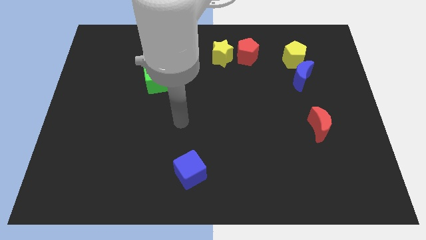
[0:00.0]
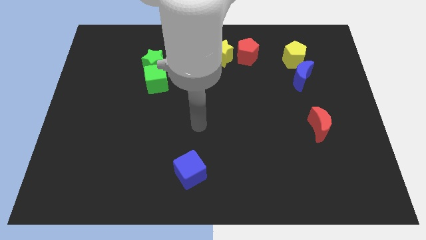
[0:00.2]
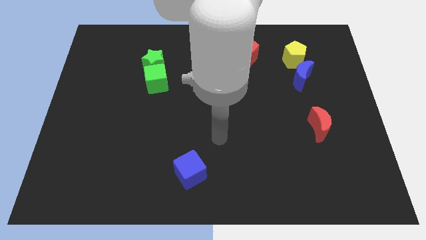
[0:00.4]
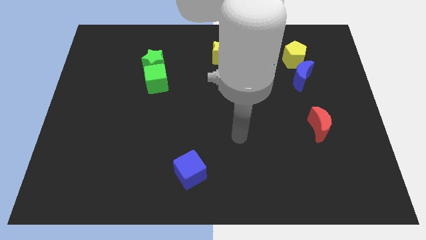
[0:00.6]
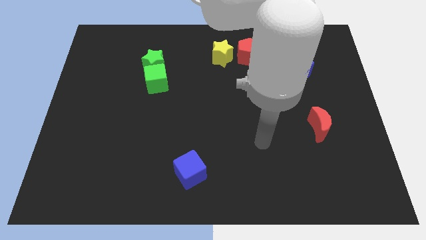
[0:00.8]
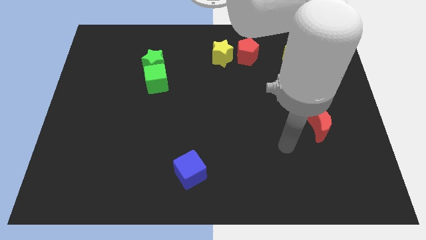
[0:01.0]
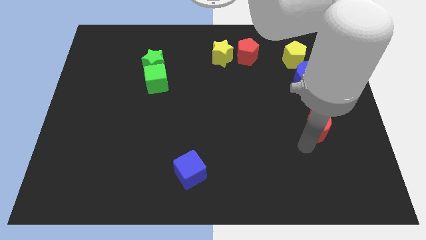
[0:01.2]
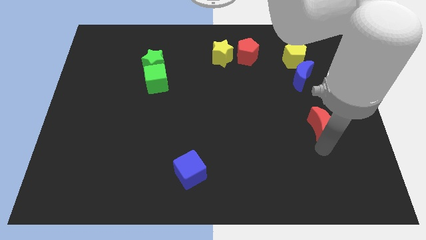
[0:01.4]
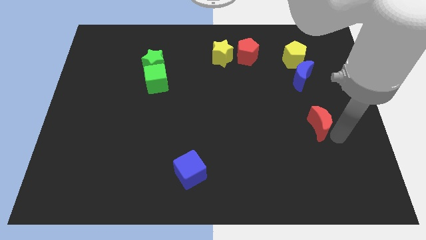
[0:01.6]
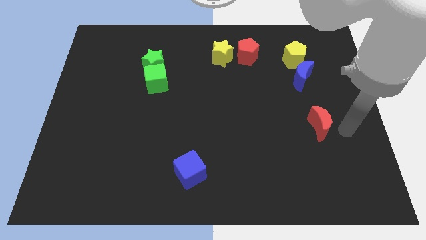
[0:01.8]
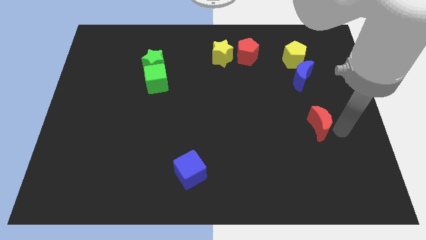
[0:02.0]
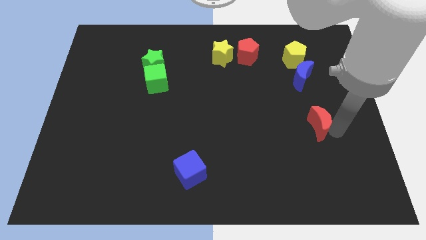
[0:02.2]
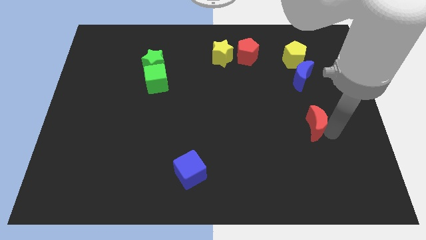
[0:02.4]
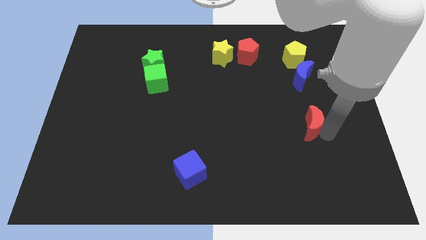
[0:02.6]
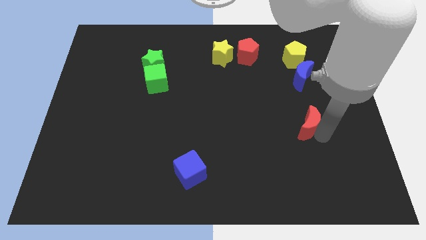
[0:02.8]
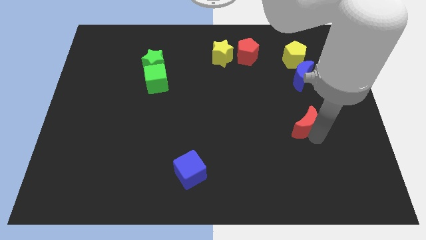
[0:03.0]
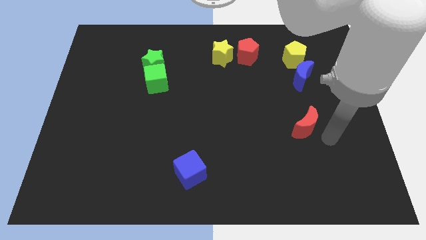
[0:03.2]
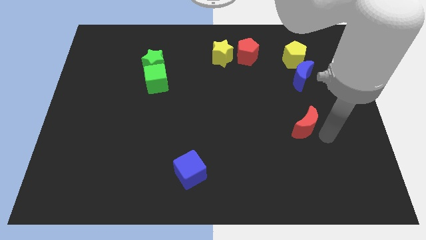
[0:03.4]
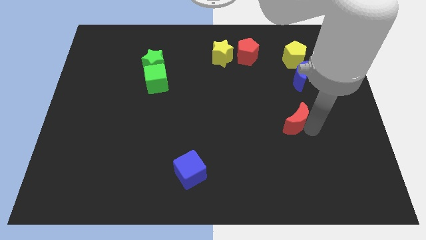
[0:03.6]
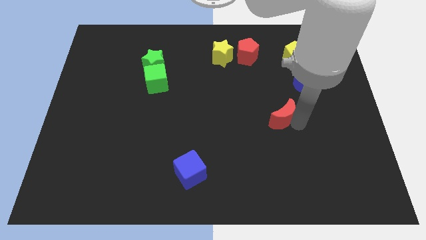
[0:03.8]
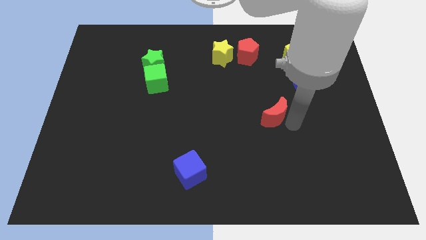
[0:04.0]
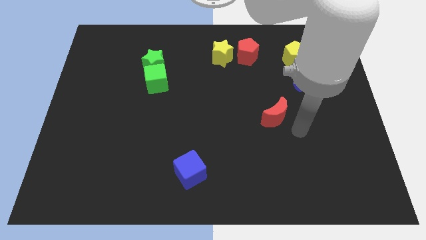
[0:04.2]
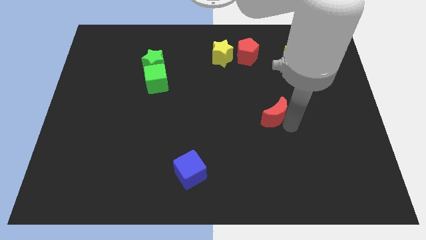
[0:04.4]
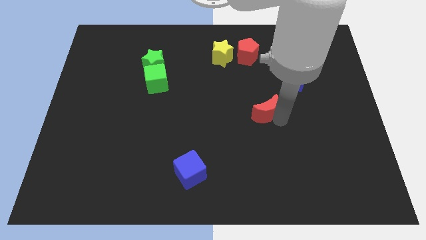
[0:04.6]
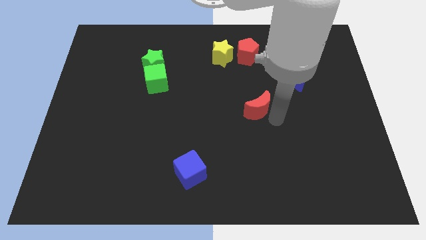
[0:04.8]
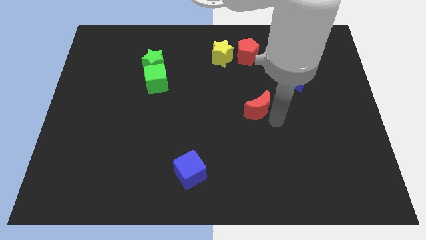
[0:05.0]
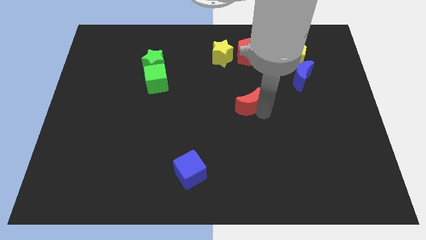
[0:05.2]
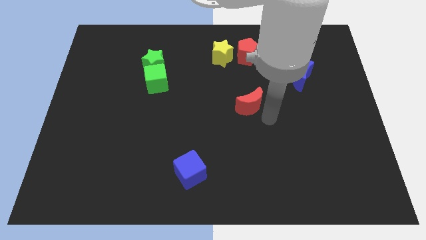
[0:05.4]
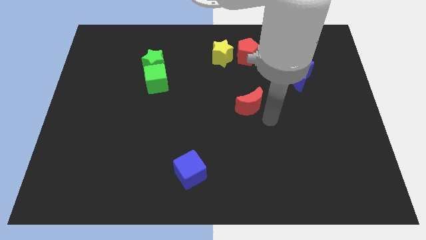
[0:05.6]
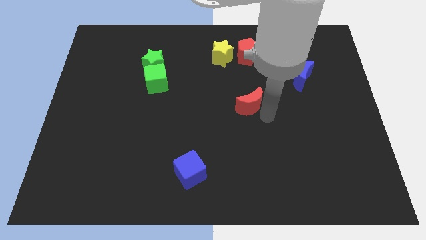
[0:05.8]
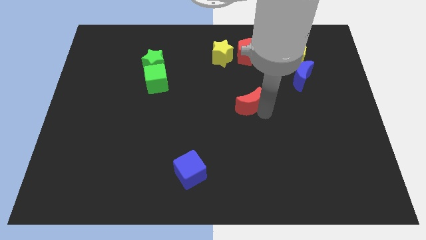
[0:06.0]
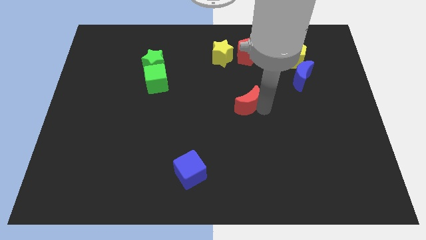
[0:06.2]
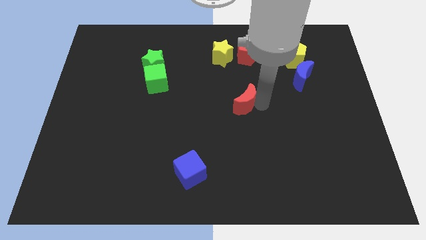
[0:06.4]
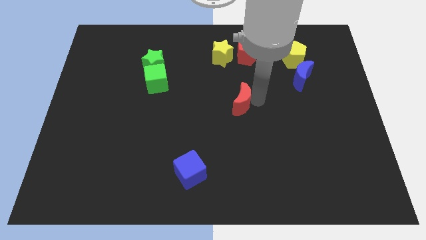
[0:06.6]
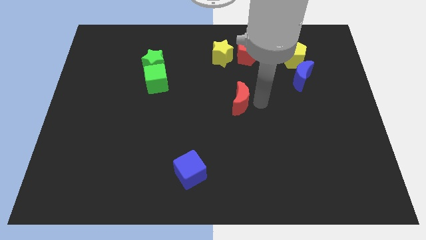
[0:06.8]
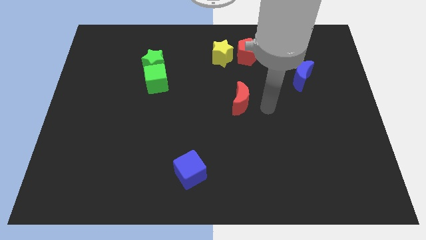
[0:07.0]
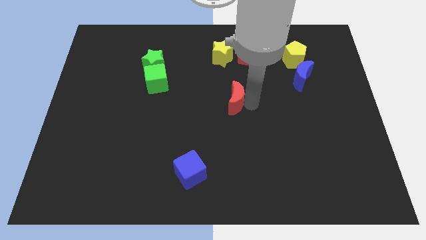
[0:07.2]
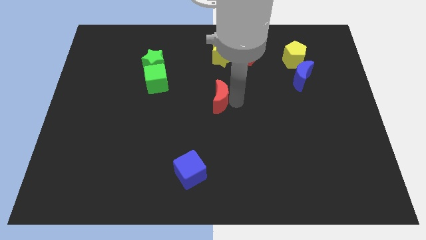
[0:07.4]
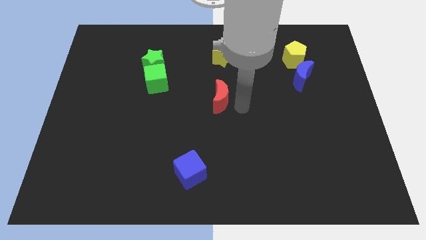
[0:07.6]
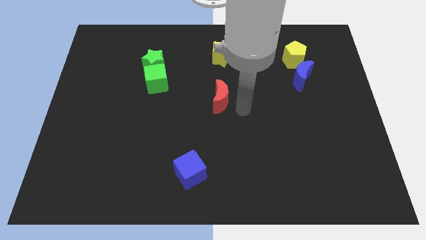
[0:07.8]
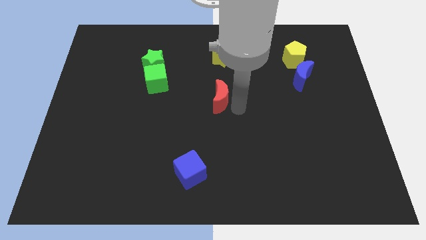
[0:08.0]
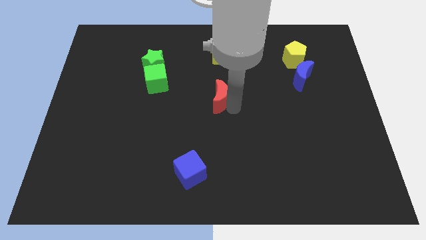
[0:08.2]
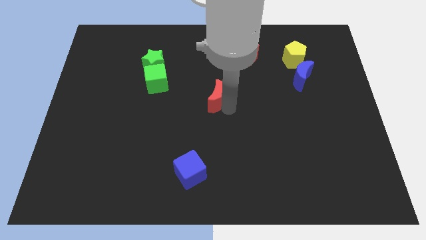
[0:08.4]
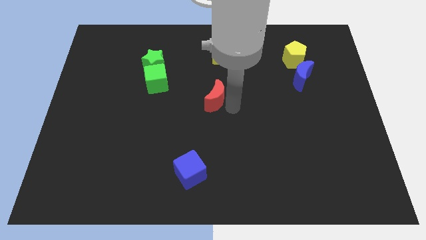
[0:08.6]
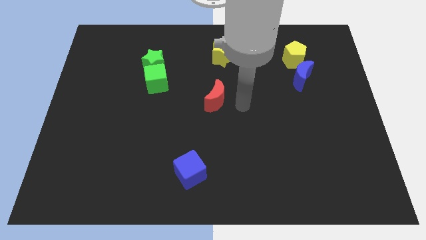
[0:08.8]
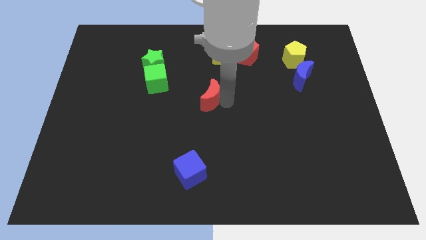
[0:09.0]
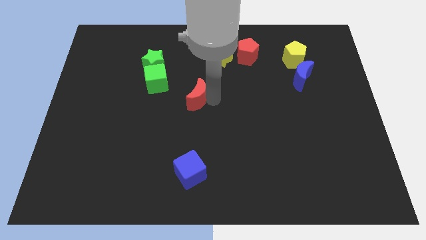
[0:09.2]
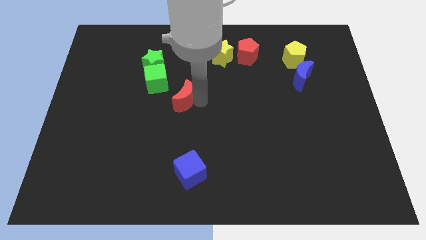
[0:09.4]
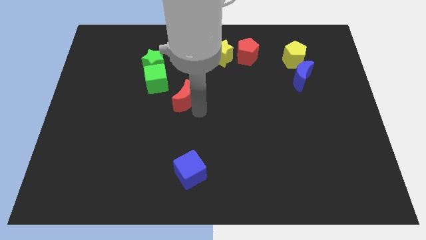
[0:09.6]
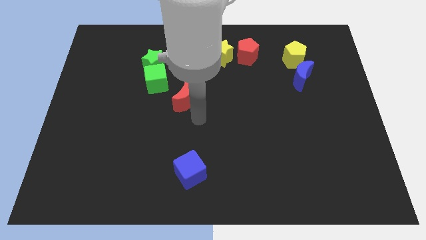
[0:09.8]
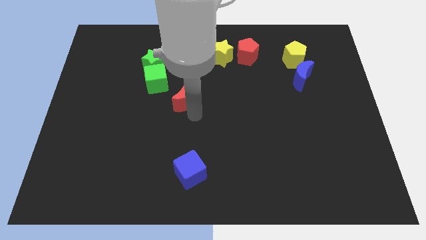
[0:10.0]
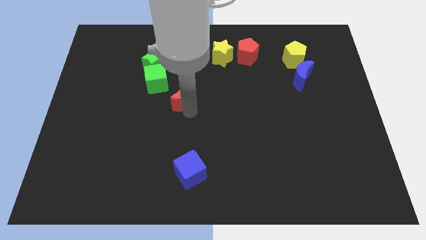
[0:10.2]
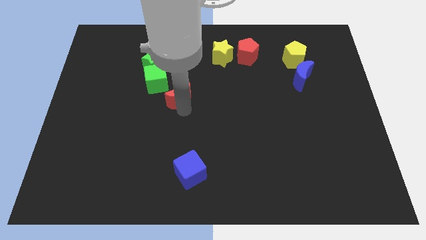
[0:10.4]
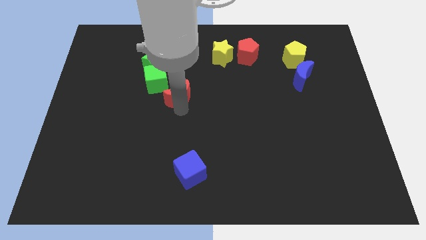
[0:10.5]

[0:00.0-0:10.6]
put the red moon to the bottom right side of the green star

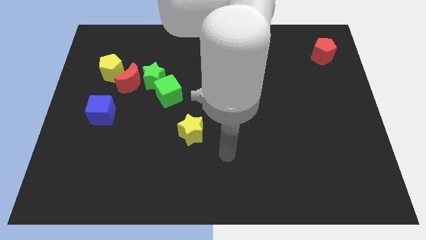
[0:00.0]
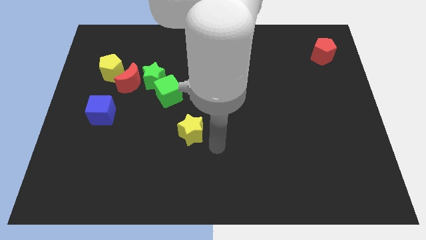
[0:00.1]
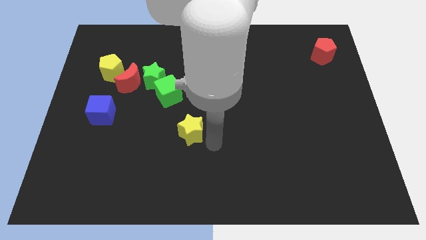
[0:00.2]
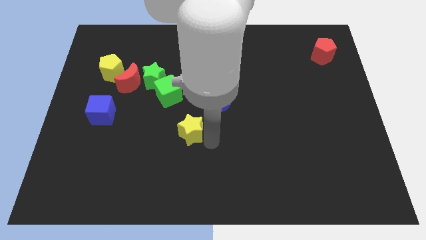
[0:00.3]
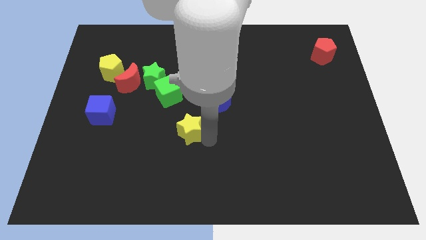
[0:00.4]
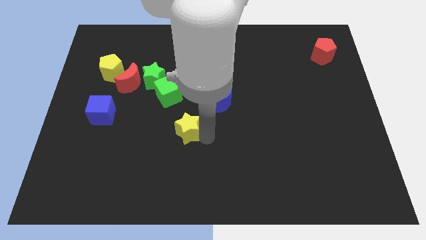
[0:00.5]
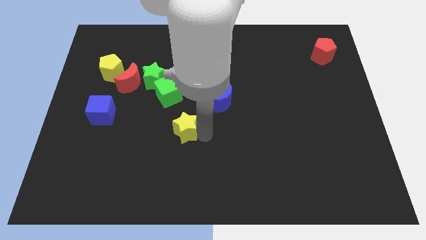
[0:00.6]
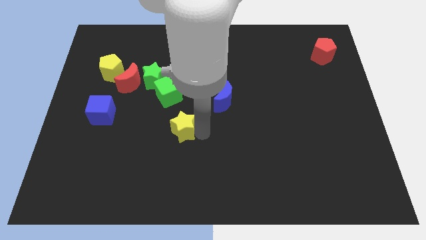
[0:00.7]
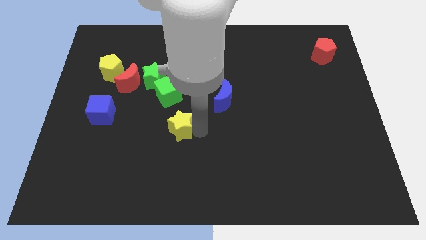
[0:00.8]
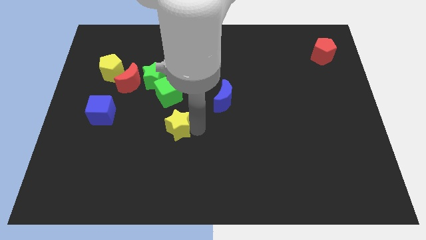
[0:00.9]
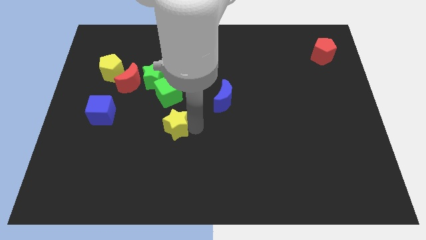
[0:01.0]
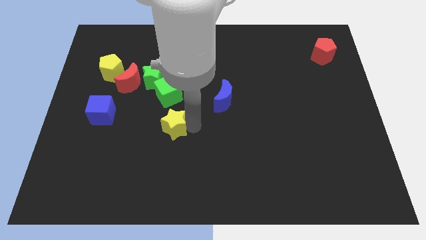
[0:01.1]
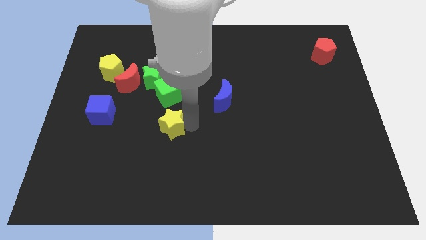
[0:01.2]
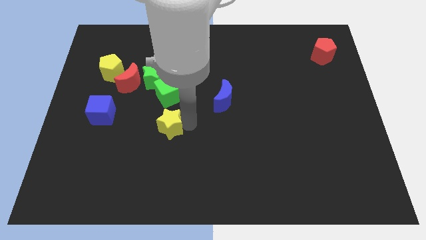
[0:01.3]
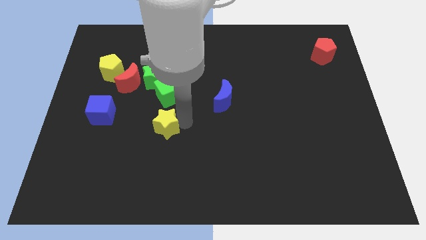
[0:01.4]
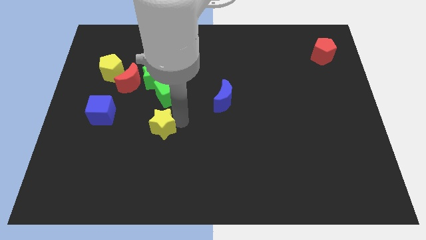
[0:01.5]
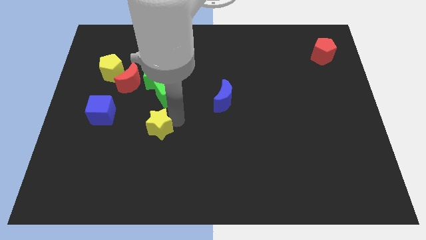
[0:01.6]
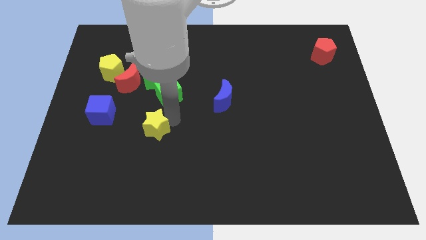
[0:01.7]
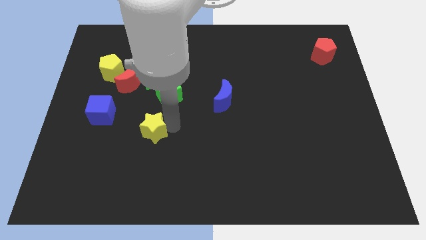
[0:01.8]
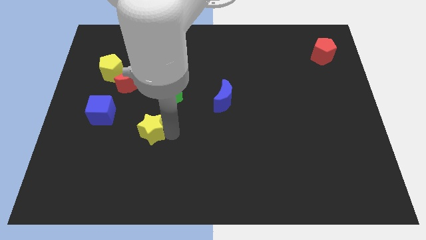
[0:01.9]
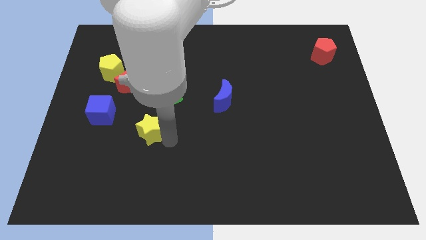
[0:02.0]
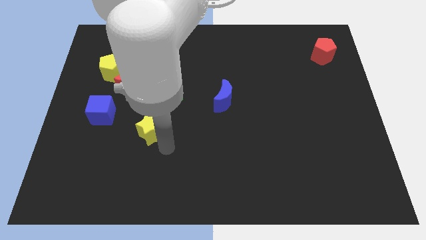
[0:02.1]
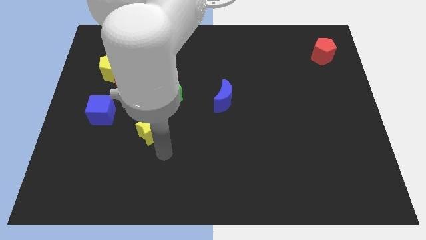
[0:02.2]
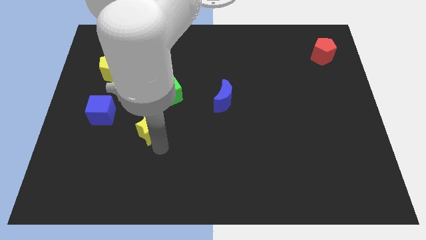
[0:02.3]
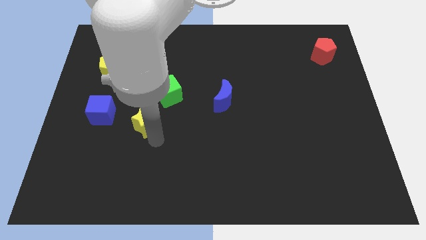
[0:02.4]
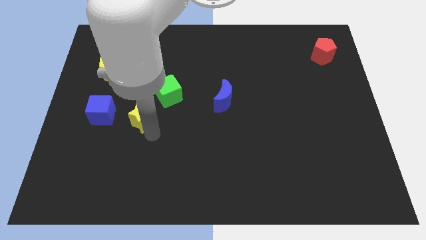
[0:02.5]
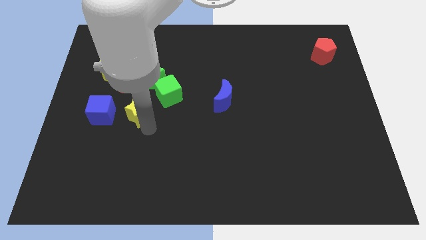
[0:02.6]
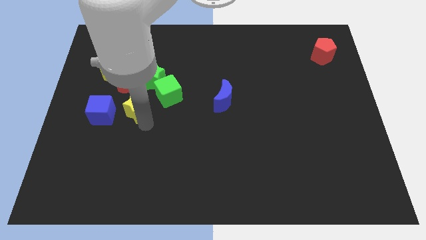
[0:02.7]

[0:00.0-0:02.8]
put the yellow star to the left side of the green cube

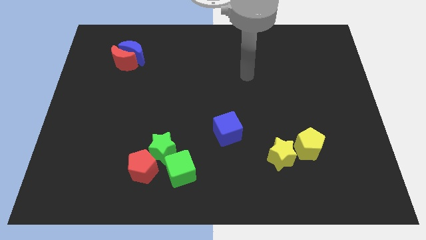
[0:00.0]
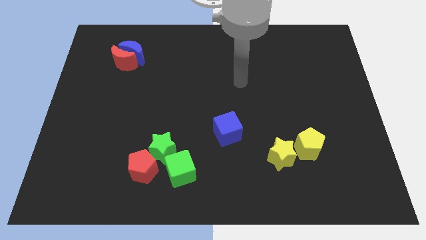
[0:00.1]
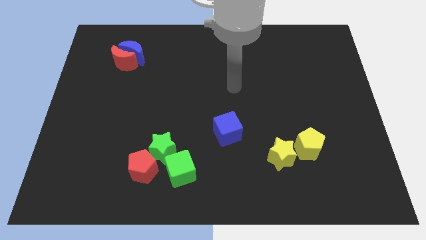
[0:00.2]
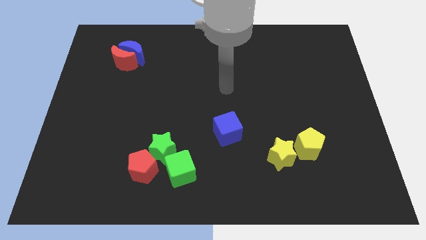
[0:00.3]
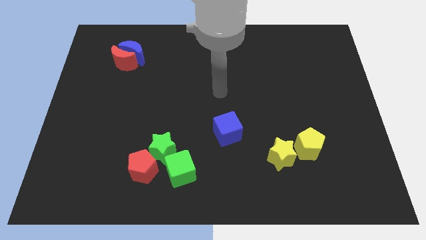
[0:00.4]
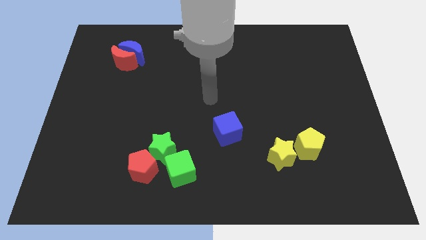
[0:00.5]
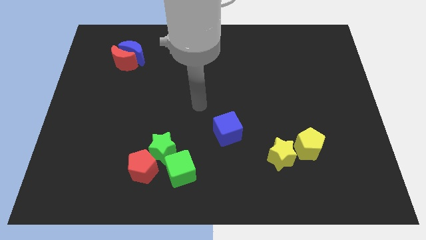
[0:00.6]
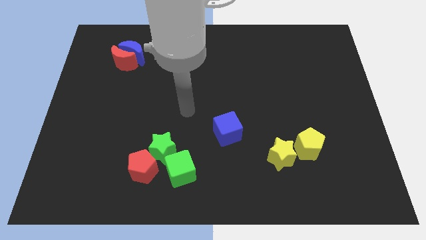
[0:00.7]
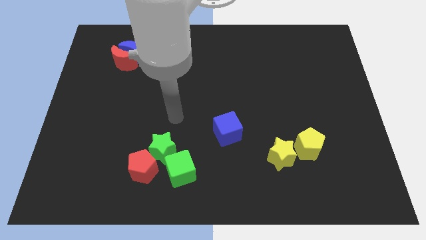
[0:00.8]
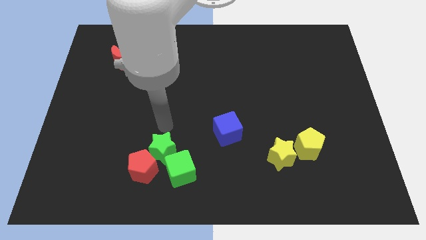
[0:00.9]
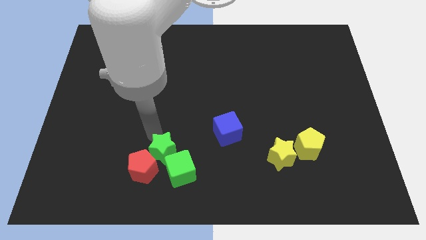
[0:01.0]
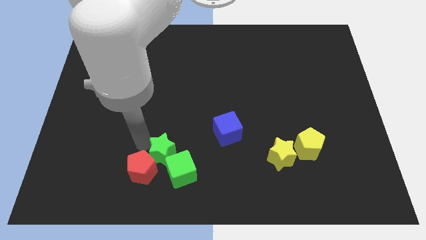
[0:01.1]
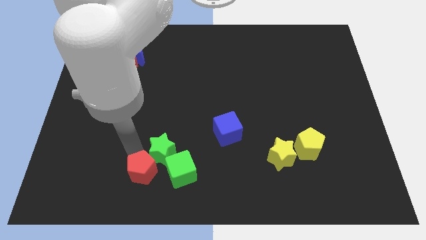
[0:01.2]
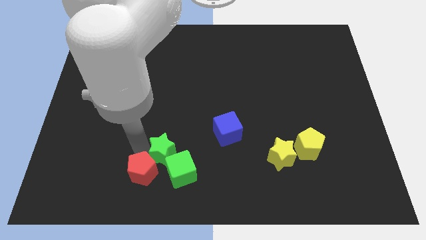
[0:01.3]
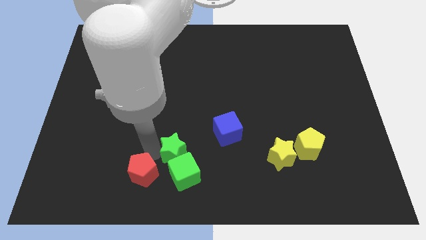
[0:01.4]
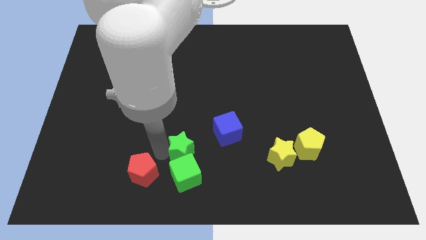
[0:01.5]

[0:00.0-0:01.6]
slide the green star to the bottom left side of the blue cube
